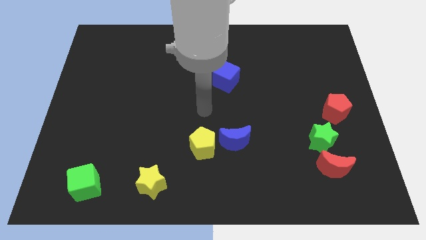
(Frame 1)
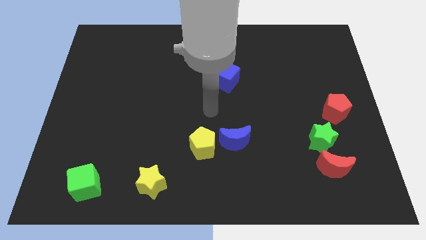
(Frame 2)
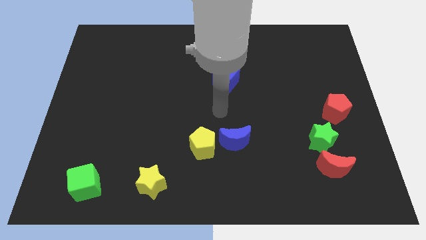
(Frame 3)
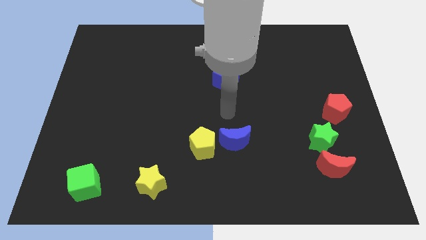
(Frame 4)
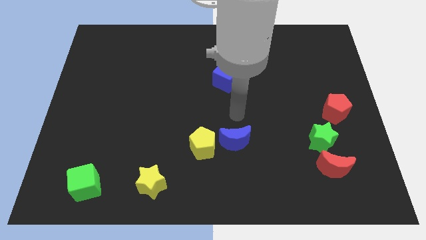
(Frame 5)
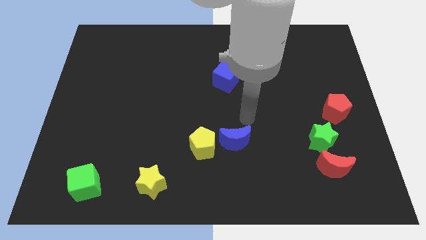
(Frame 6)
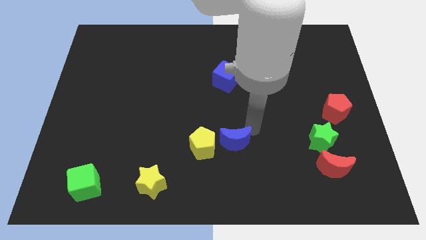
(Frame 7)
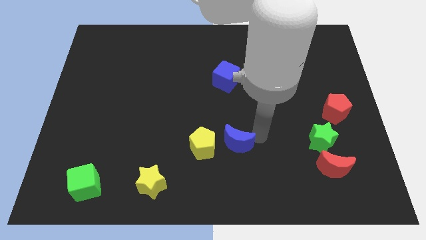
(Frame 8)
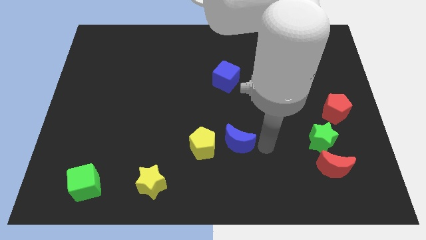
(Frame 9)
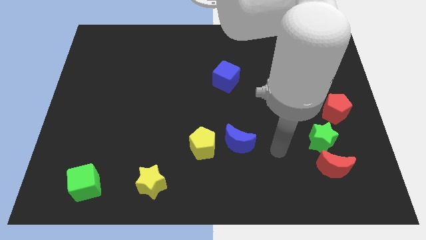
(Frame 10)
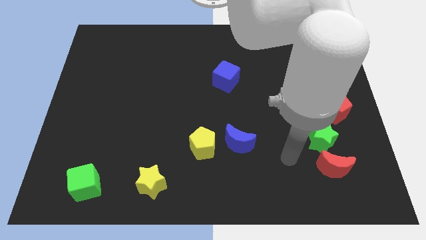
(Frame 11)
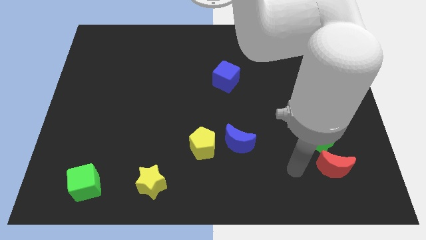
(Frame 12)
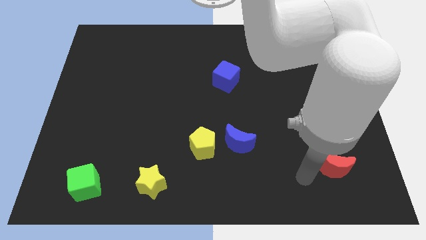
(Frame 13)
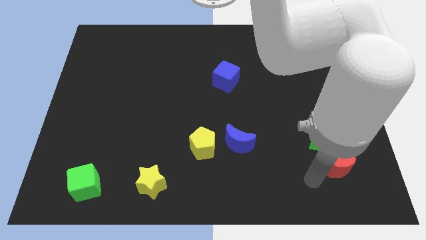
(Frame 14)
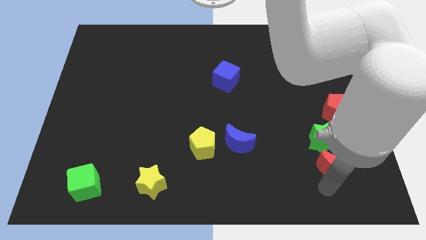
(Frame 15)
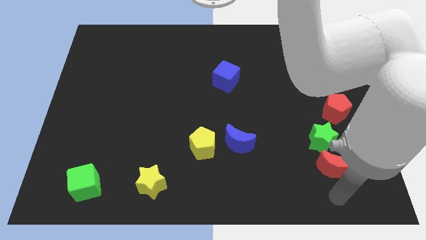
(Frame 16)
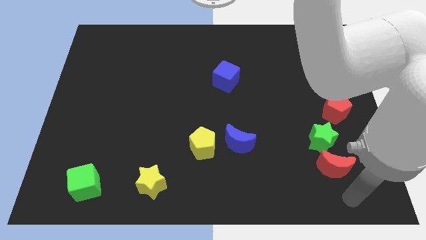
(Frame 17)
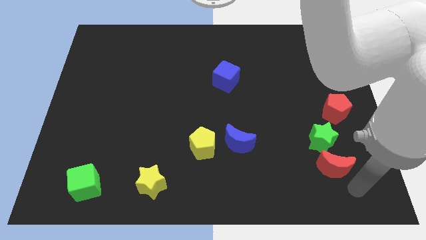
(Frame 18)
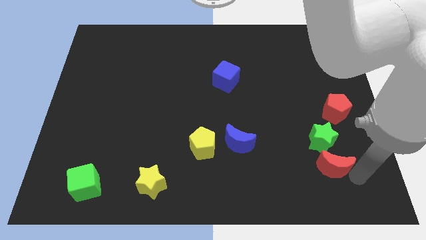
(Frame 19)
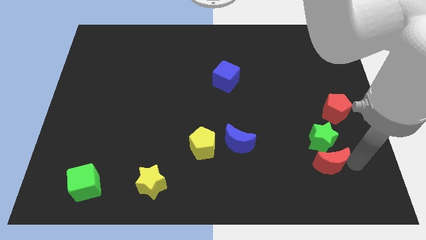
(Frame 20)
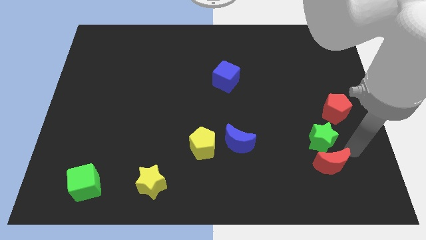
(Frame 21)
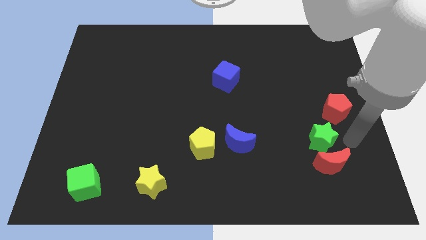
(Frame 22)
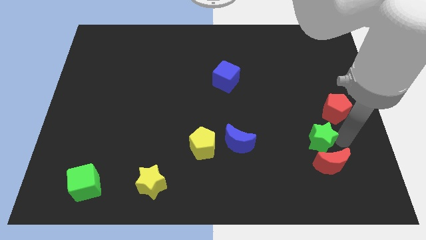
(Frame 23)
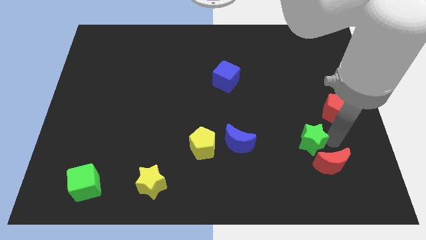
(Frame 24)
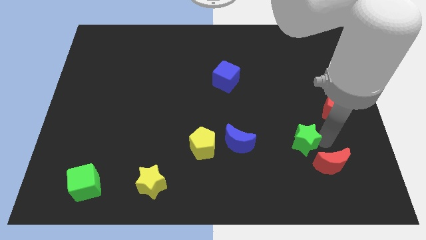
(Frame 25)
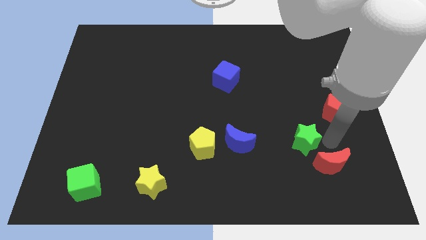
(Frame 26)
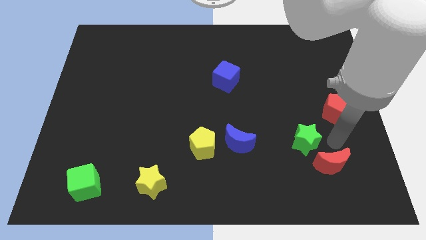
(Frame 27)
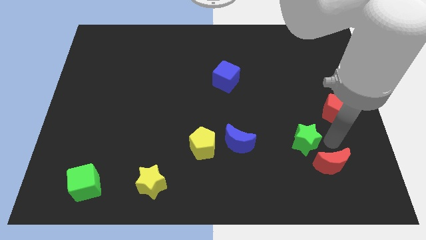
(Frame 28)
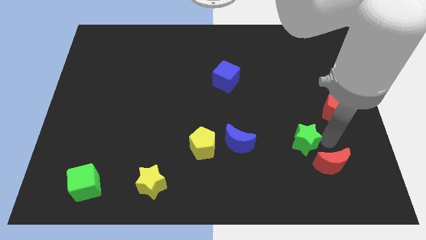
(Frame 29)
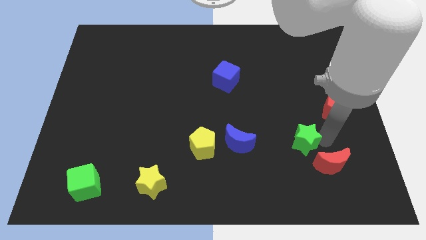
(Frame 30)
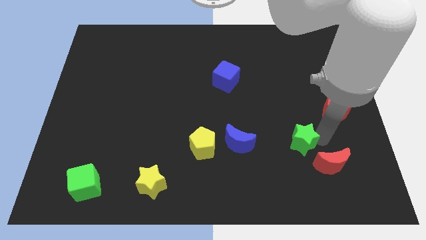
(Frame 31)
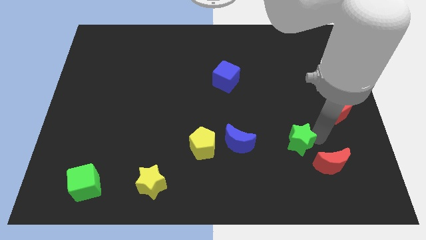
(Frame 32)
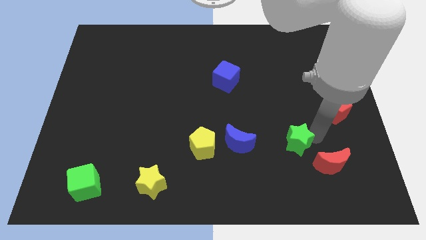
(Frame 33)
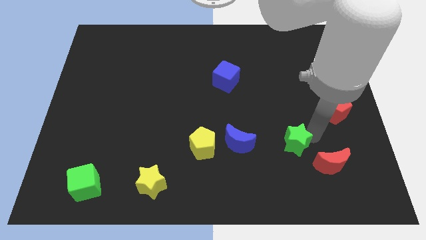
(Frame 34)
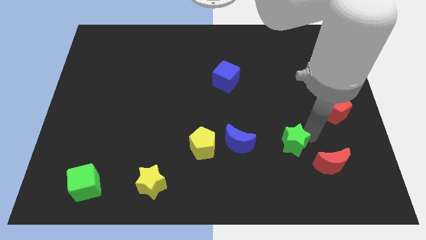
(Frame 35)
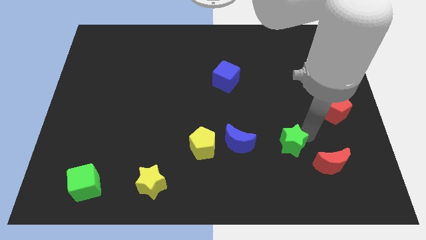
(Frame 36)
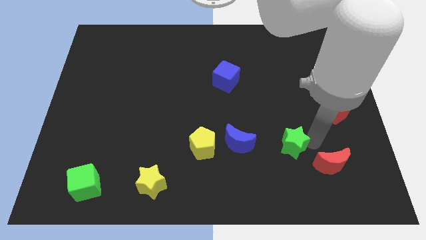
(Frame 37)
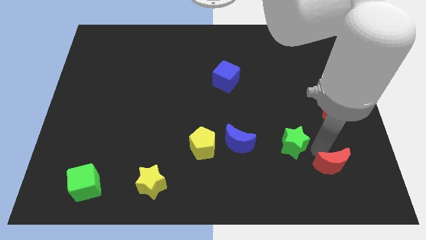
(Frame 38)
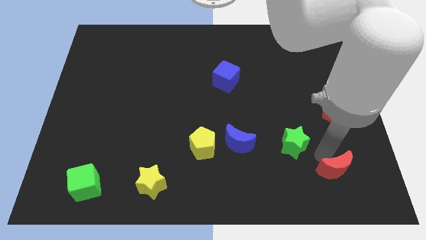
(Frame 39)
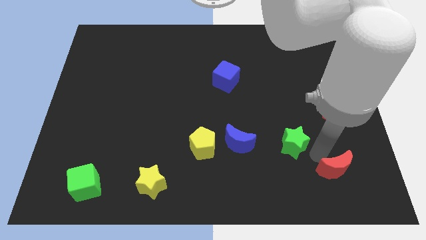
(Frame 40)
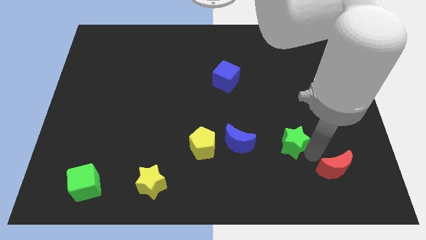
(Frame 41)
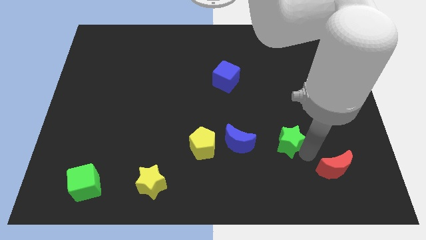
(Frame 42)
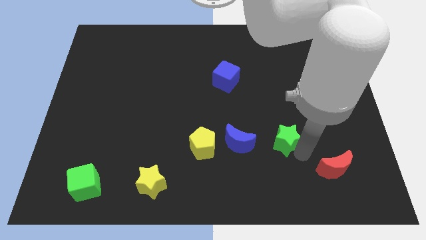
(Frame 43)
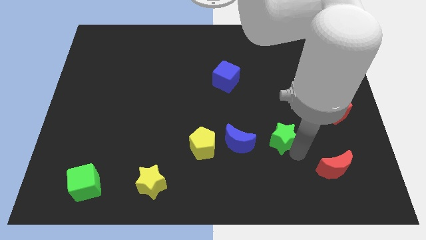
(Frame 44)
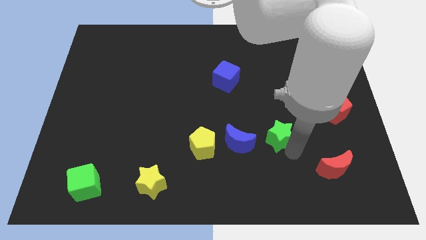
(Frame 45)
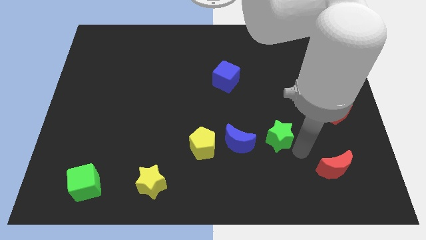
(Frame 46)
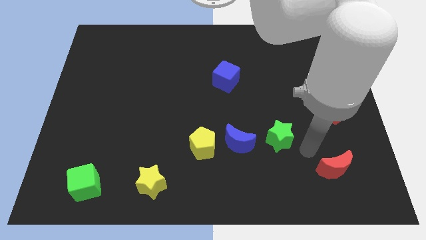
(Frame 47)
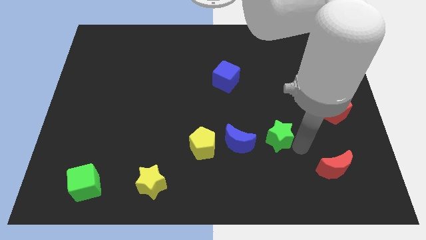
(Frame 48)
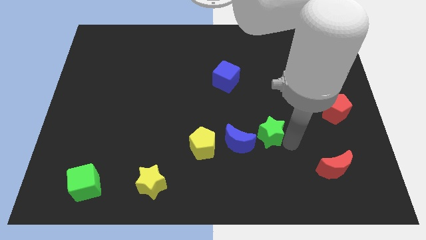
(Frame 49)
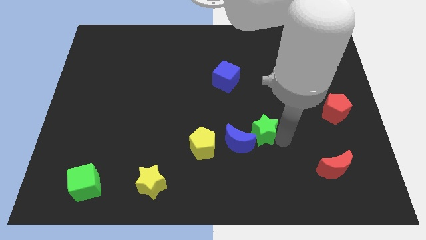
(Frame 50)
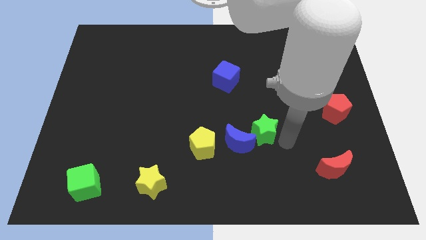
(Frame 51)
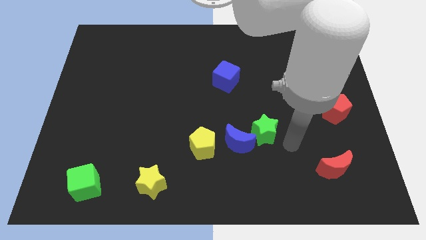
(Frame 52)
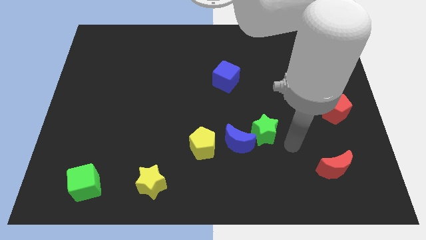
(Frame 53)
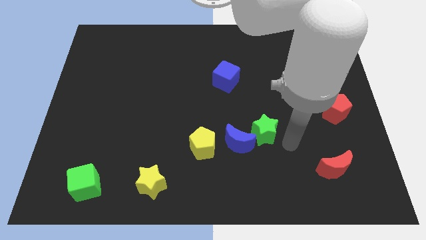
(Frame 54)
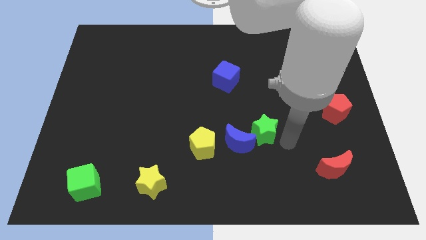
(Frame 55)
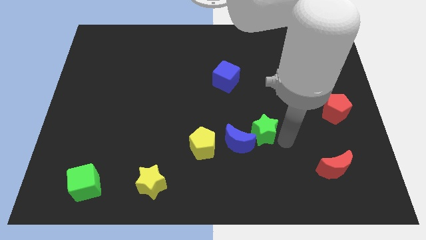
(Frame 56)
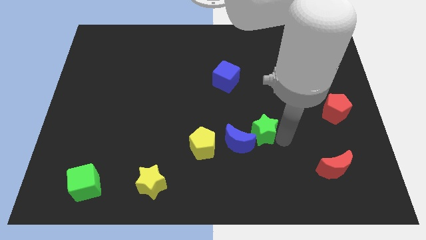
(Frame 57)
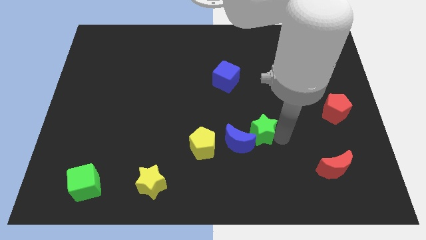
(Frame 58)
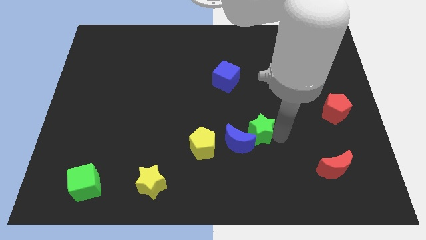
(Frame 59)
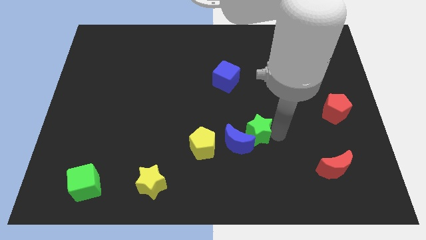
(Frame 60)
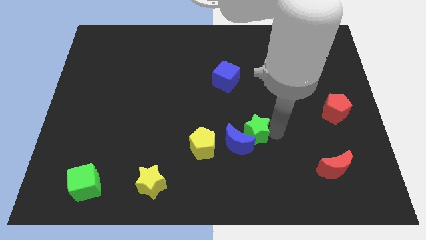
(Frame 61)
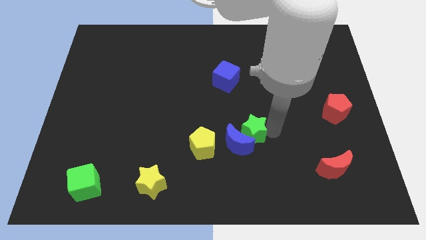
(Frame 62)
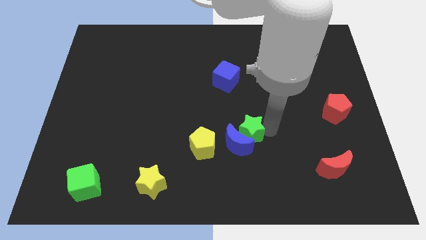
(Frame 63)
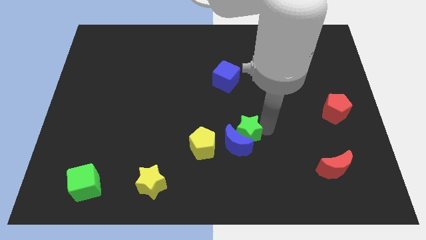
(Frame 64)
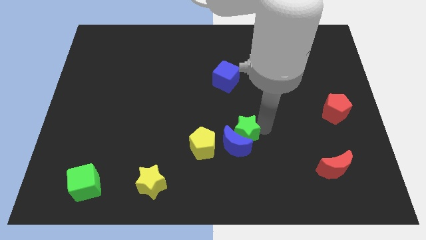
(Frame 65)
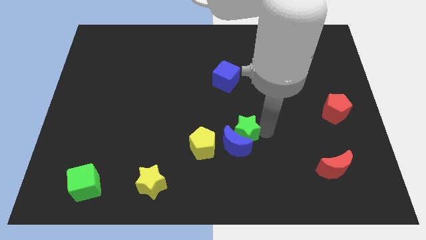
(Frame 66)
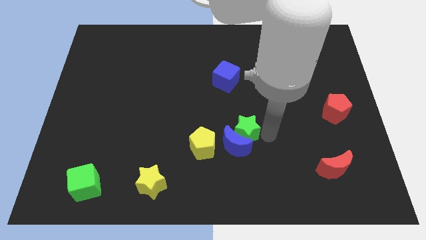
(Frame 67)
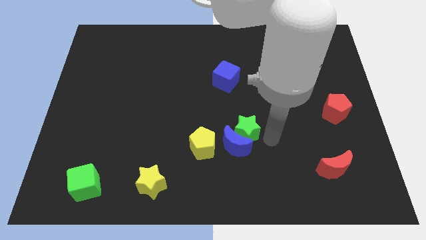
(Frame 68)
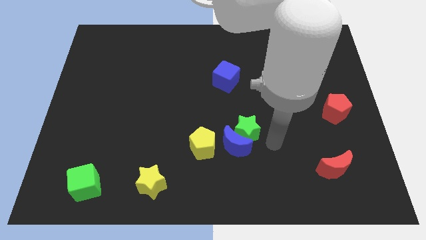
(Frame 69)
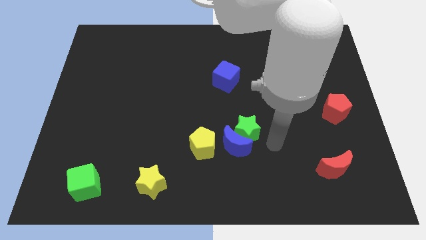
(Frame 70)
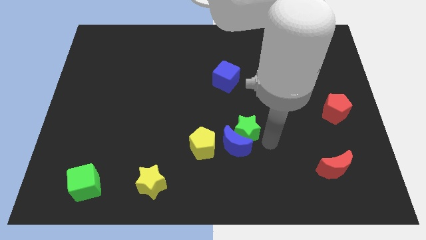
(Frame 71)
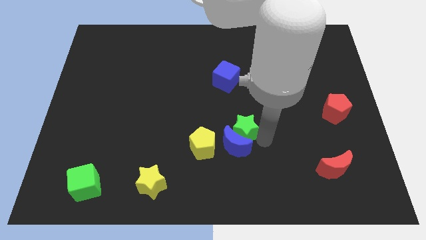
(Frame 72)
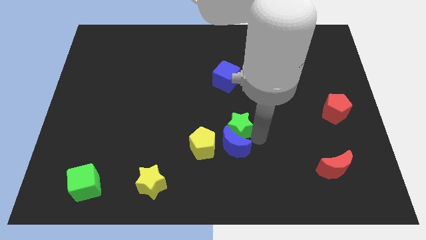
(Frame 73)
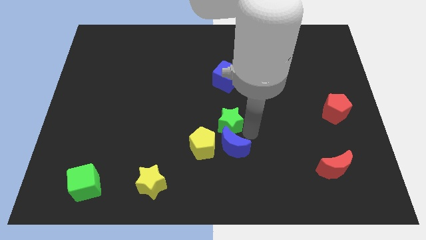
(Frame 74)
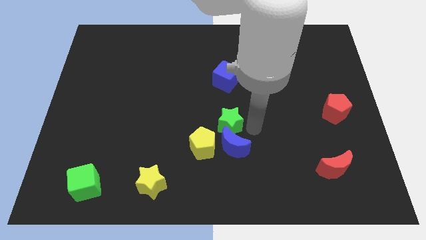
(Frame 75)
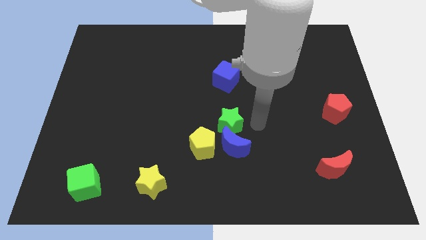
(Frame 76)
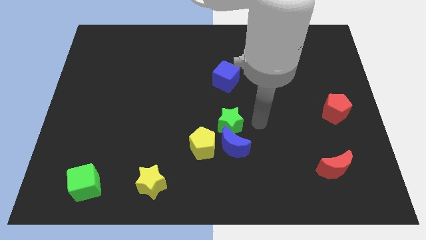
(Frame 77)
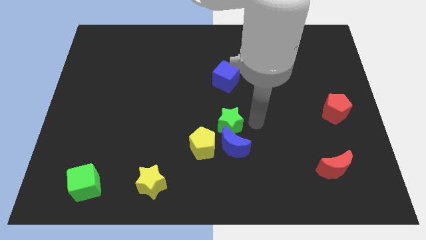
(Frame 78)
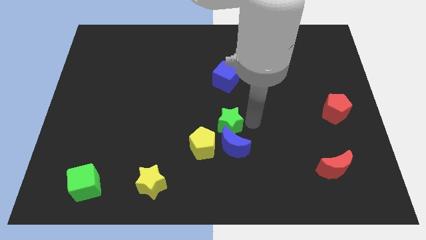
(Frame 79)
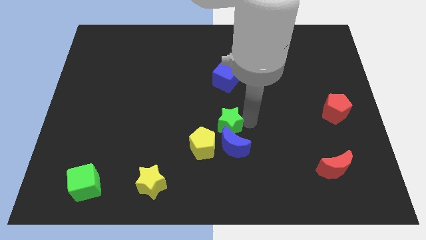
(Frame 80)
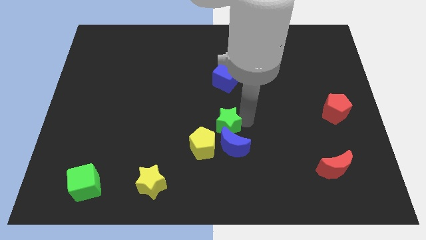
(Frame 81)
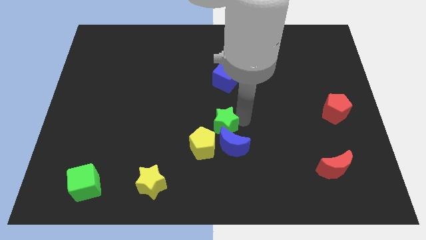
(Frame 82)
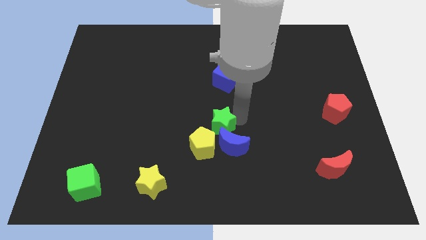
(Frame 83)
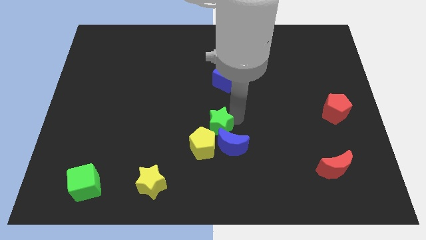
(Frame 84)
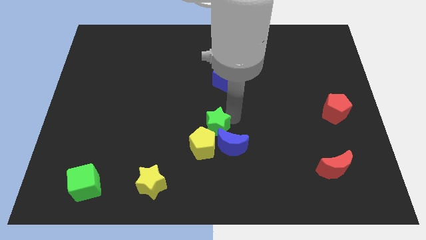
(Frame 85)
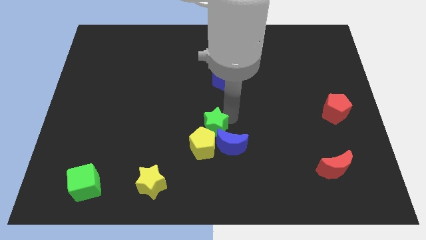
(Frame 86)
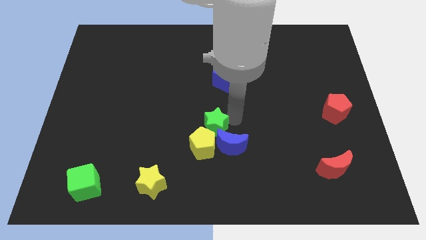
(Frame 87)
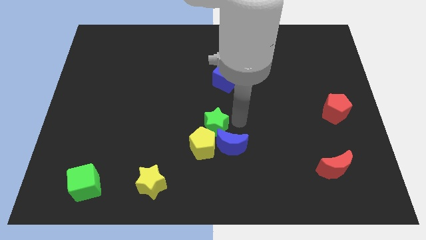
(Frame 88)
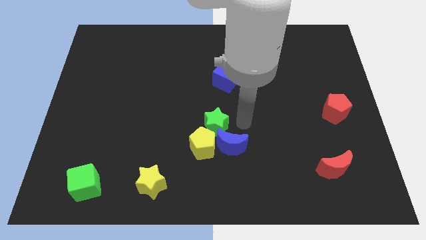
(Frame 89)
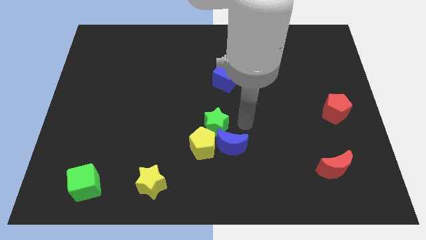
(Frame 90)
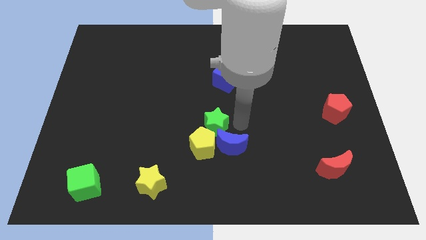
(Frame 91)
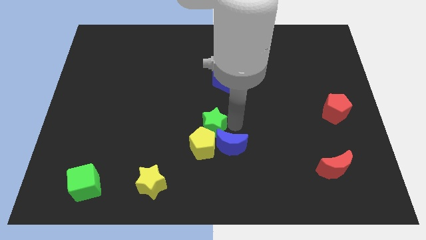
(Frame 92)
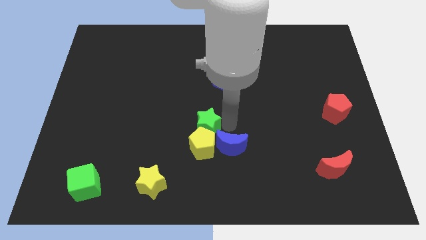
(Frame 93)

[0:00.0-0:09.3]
move the green star to the top left side of the yellow pentagon
